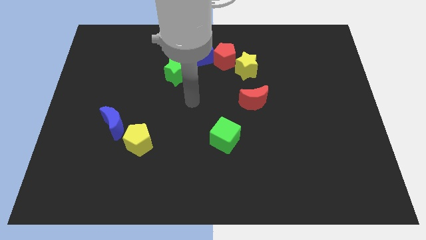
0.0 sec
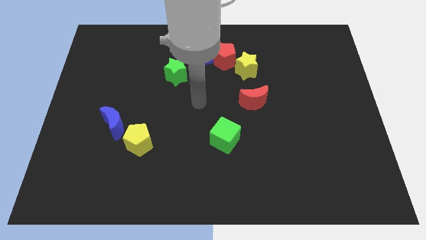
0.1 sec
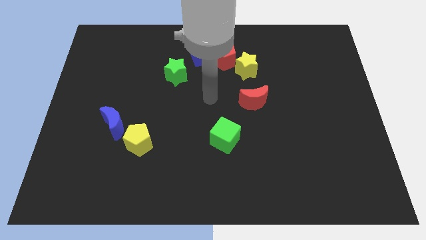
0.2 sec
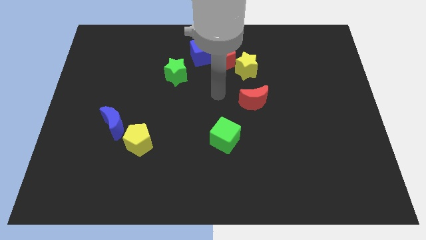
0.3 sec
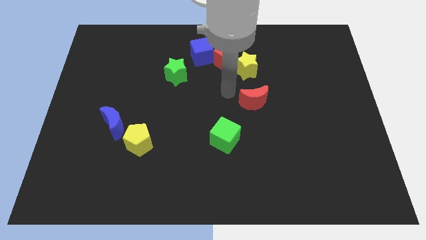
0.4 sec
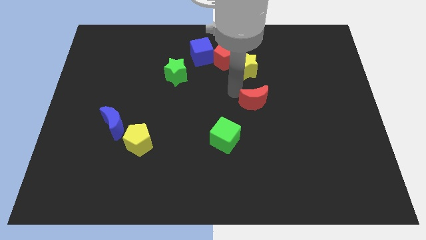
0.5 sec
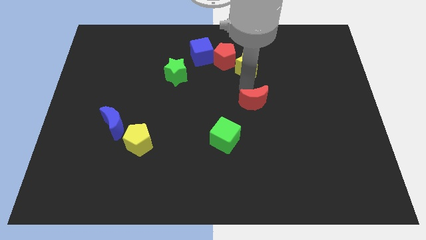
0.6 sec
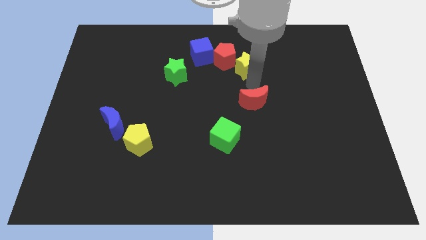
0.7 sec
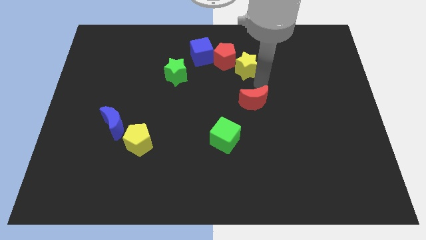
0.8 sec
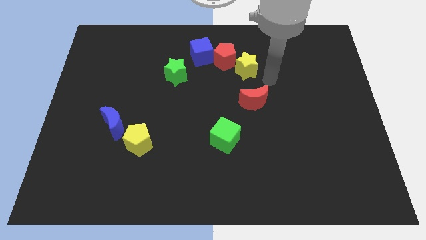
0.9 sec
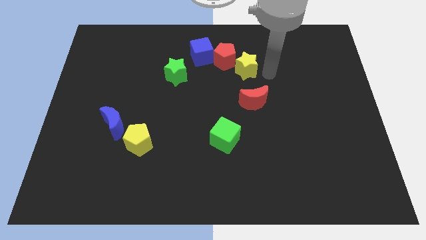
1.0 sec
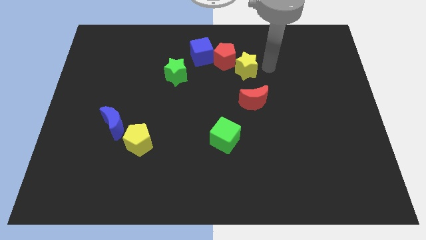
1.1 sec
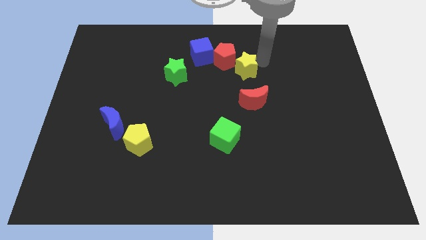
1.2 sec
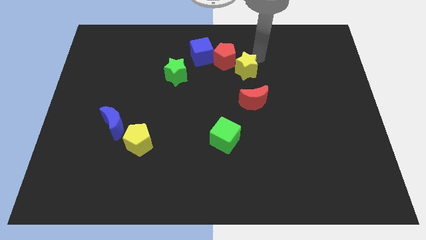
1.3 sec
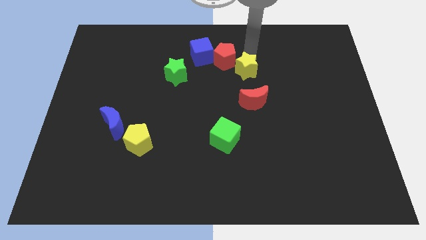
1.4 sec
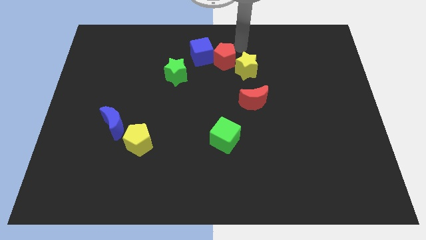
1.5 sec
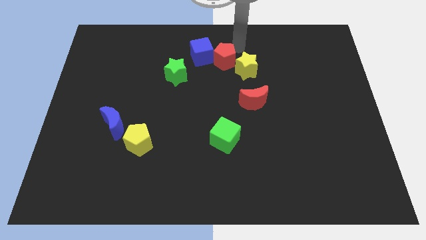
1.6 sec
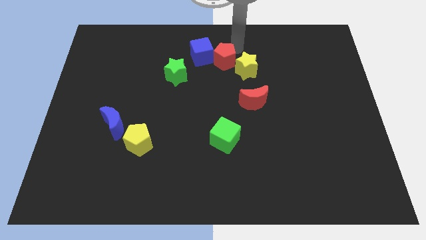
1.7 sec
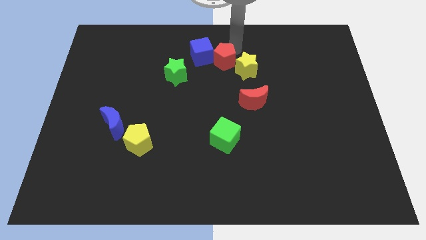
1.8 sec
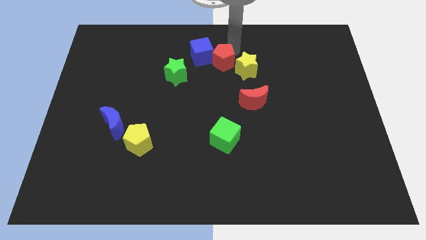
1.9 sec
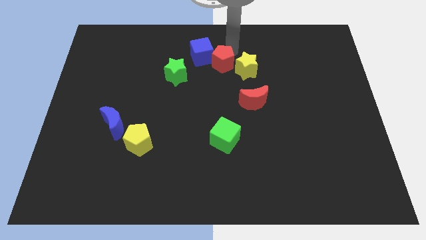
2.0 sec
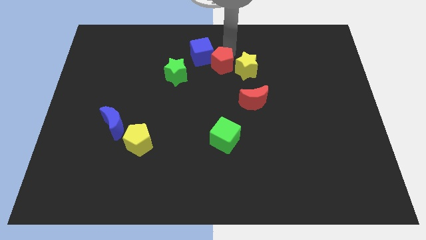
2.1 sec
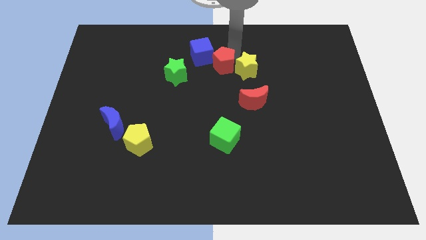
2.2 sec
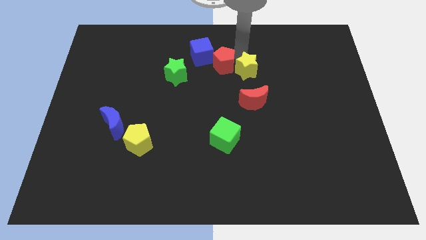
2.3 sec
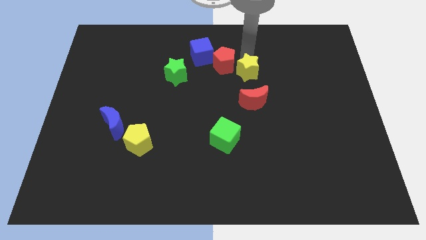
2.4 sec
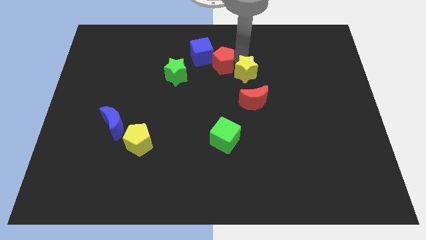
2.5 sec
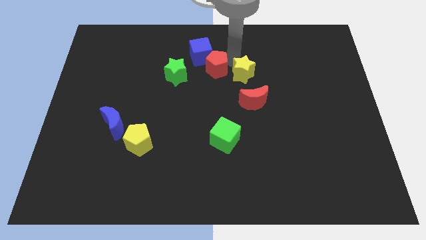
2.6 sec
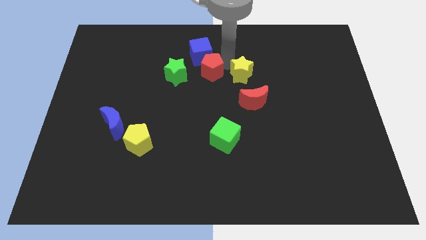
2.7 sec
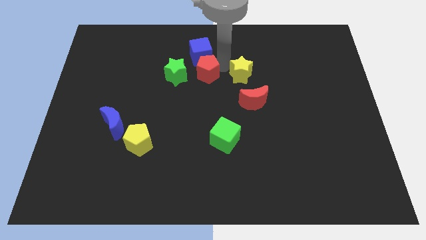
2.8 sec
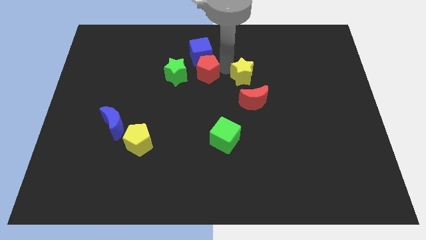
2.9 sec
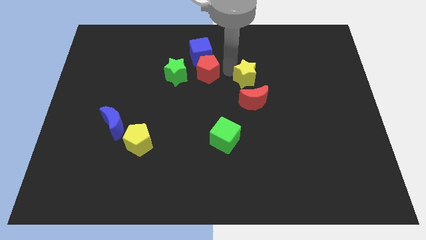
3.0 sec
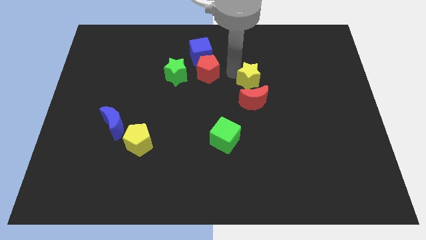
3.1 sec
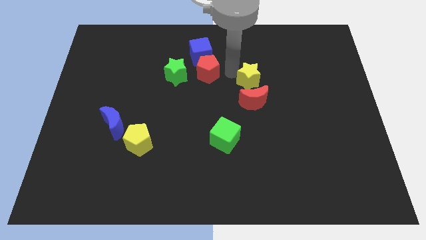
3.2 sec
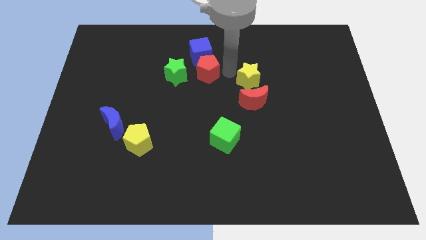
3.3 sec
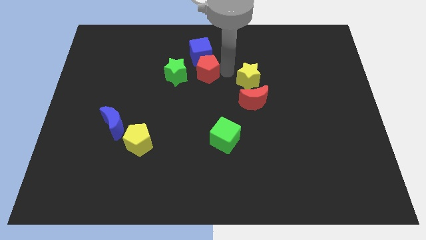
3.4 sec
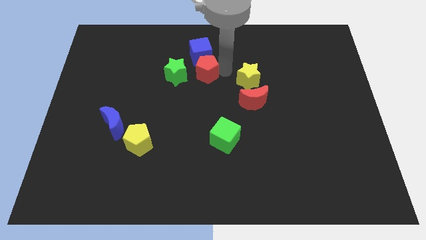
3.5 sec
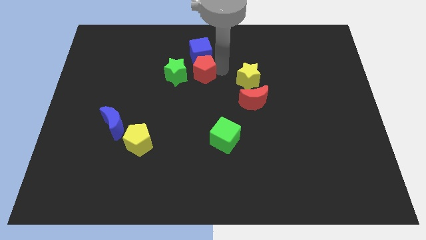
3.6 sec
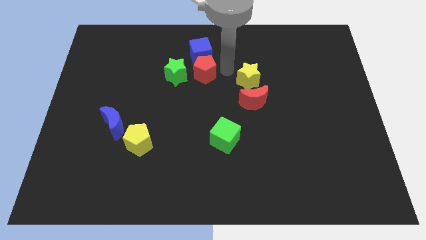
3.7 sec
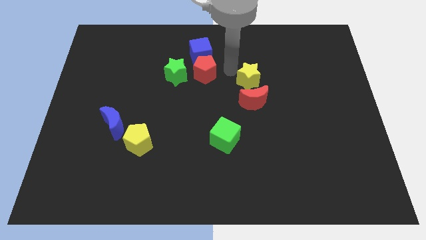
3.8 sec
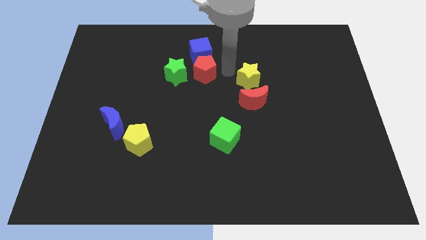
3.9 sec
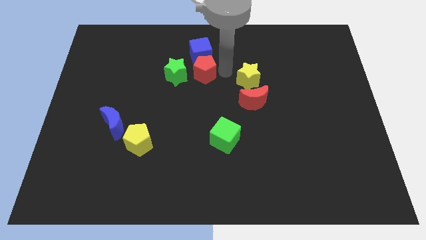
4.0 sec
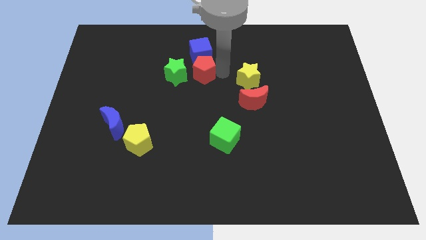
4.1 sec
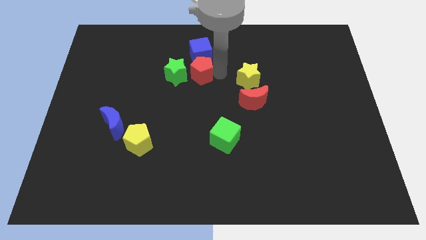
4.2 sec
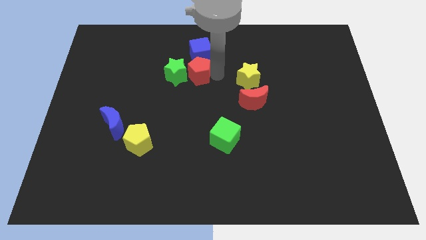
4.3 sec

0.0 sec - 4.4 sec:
move the red pentagon close to the green star

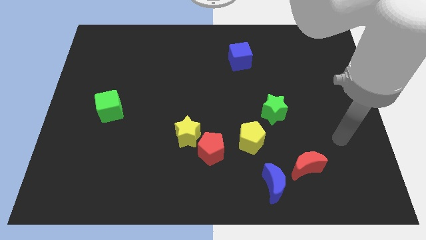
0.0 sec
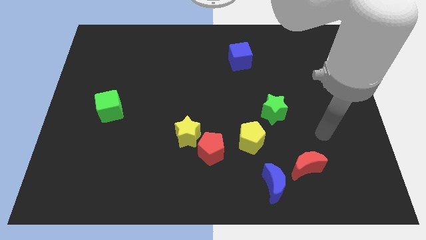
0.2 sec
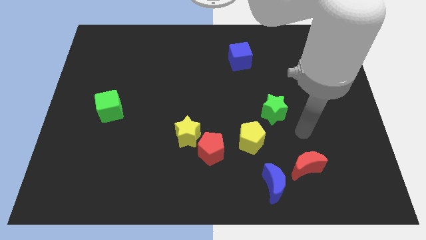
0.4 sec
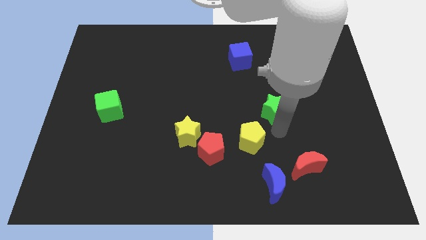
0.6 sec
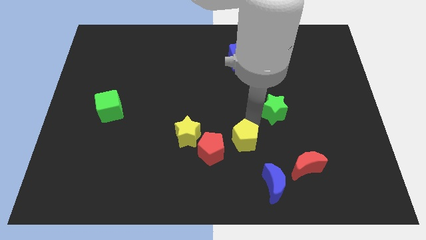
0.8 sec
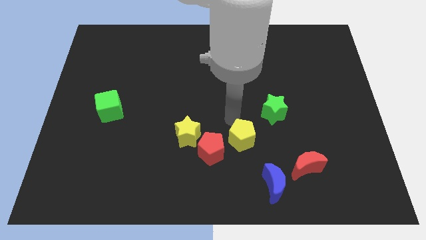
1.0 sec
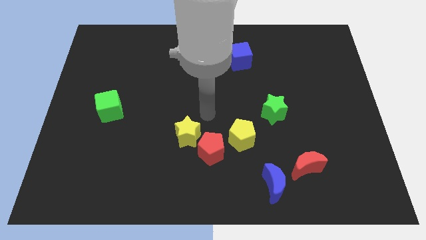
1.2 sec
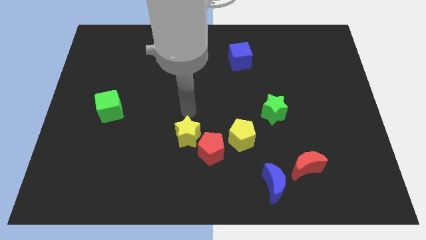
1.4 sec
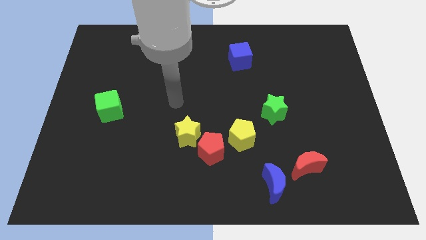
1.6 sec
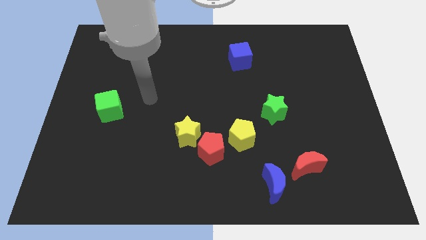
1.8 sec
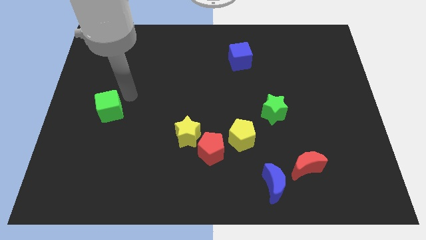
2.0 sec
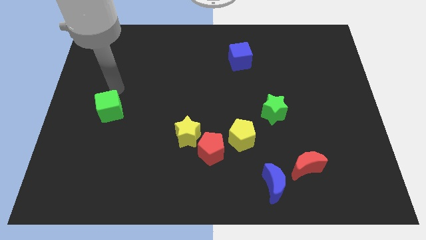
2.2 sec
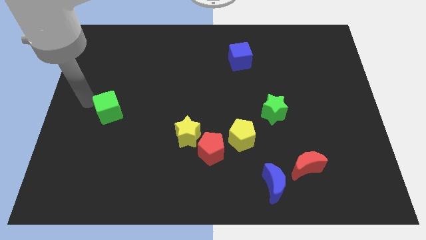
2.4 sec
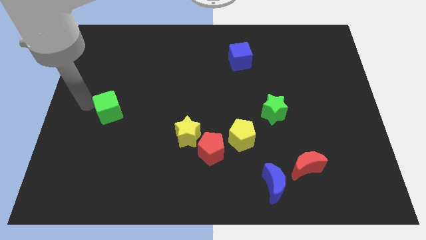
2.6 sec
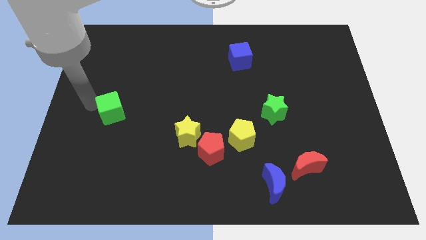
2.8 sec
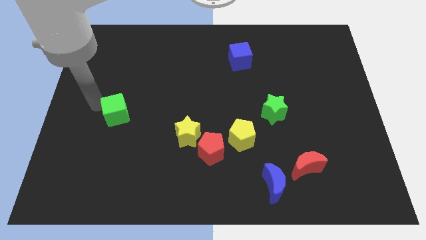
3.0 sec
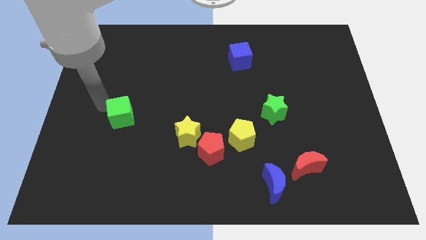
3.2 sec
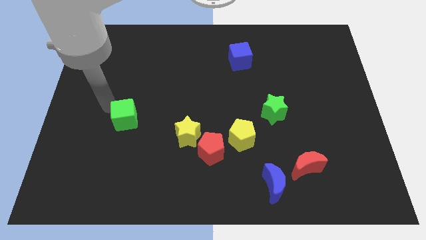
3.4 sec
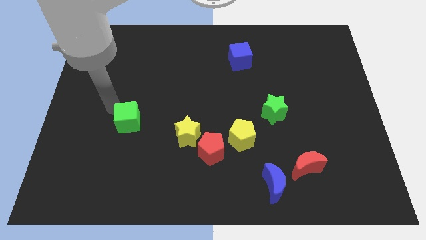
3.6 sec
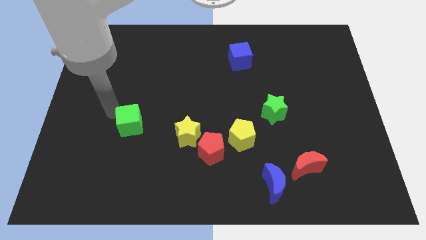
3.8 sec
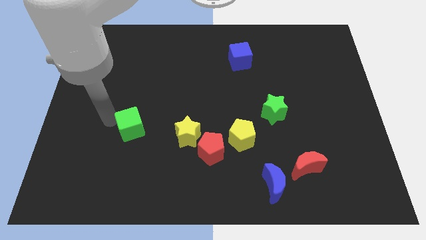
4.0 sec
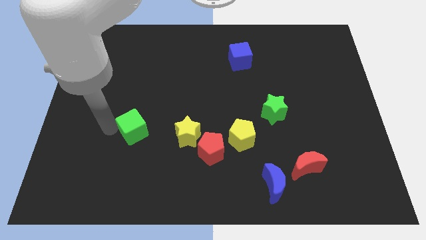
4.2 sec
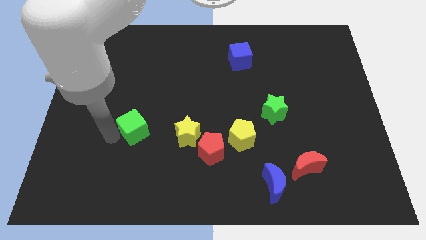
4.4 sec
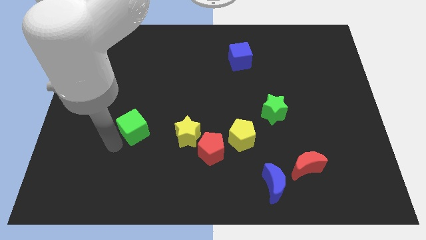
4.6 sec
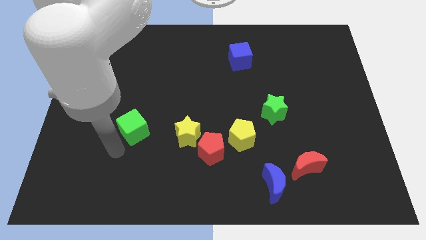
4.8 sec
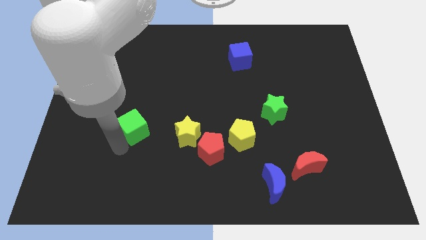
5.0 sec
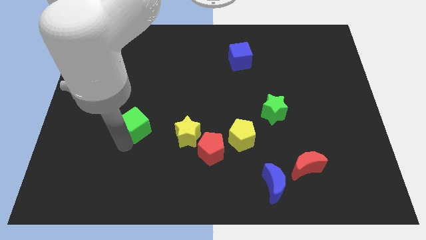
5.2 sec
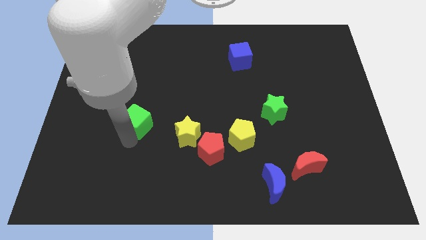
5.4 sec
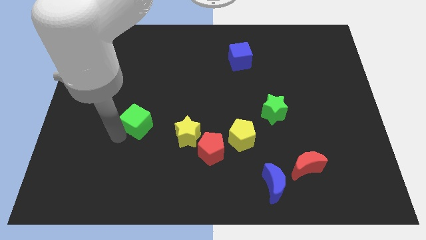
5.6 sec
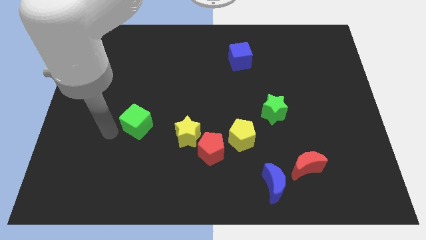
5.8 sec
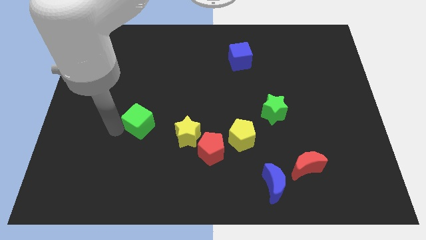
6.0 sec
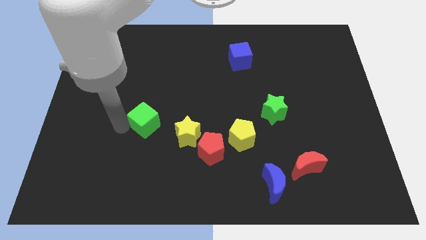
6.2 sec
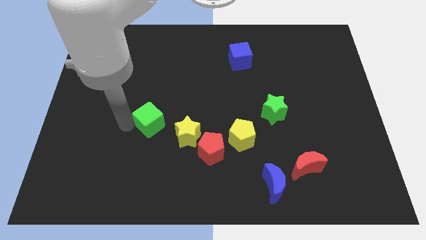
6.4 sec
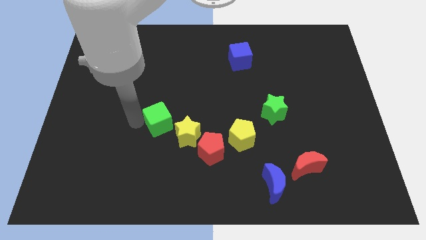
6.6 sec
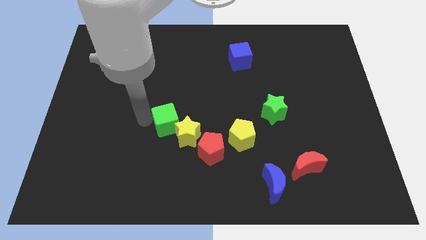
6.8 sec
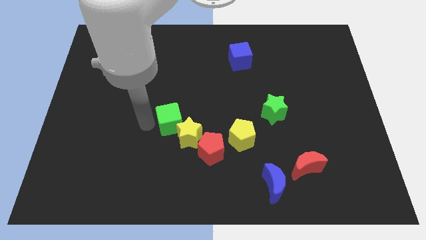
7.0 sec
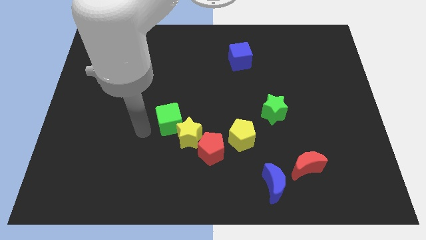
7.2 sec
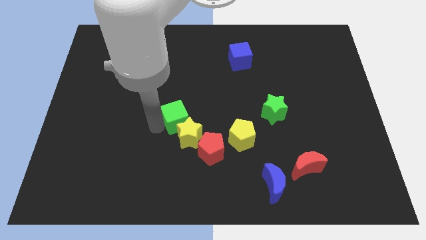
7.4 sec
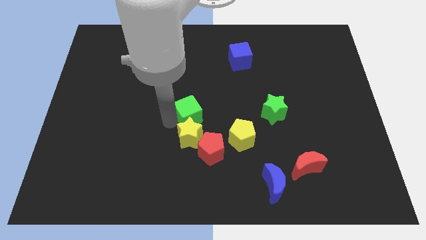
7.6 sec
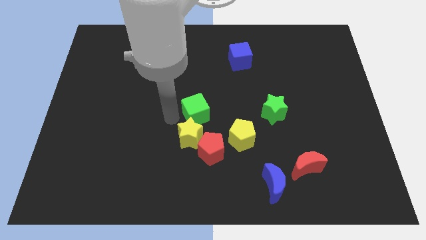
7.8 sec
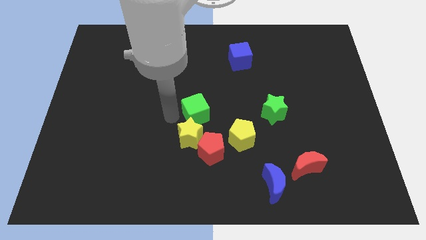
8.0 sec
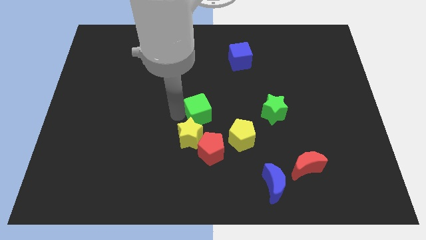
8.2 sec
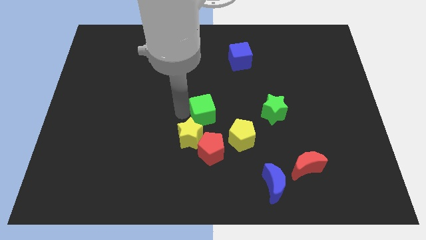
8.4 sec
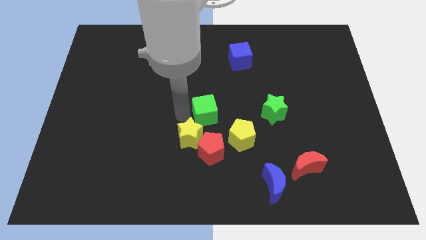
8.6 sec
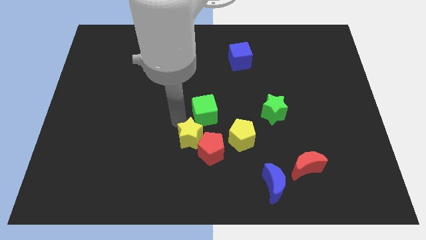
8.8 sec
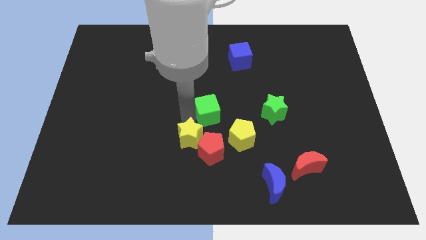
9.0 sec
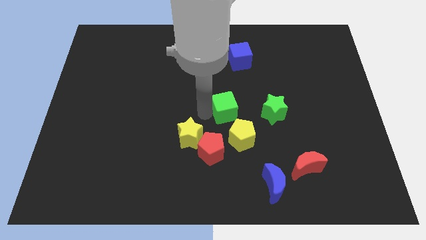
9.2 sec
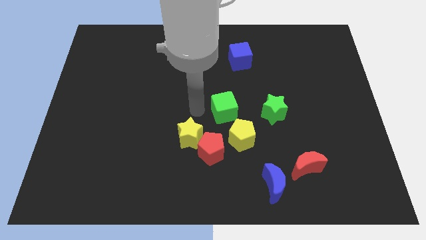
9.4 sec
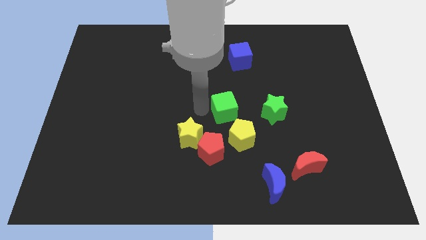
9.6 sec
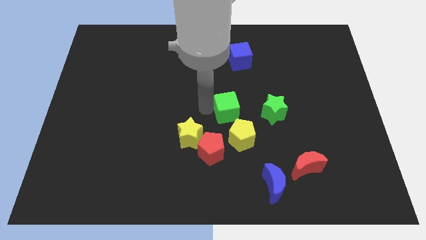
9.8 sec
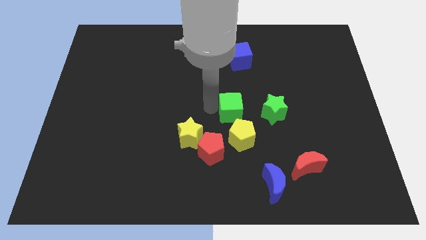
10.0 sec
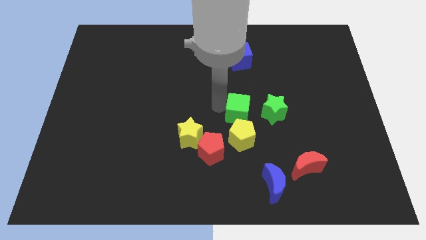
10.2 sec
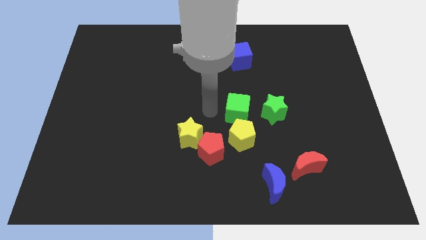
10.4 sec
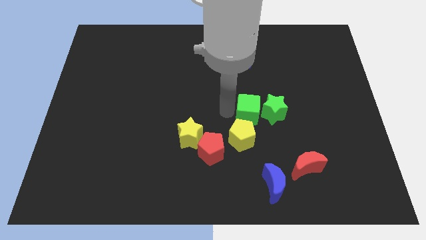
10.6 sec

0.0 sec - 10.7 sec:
put the green cube close to the green star
